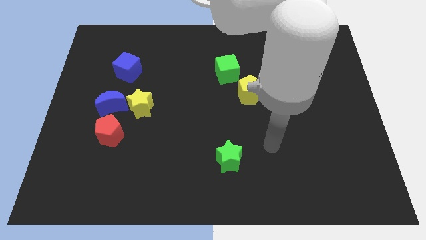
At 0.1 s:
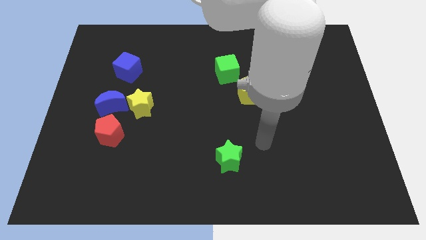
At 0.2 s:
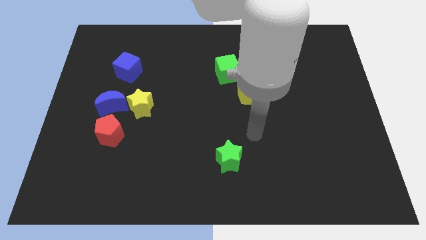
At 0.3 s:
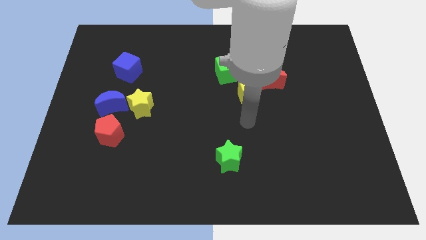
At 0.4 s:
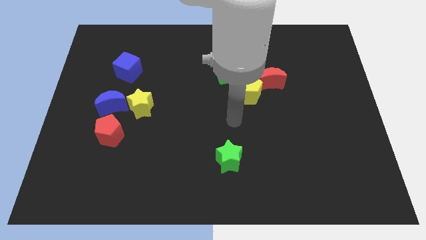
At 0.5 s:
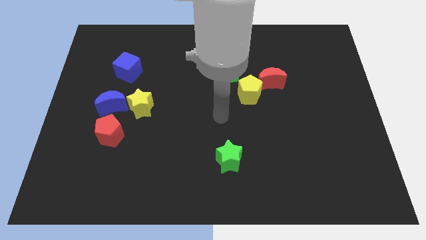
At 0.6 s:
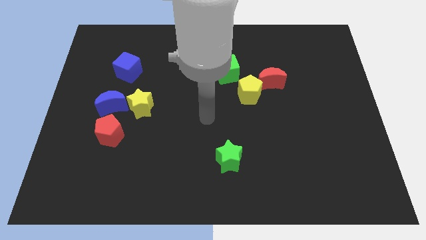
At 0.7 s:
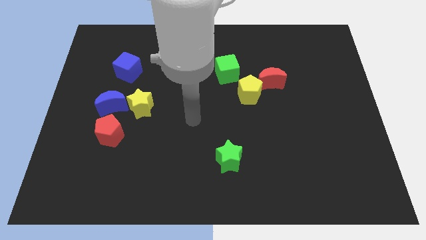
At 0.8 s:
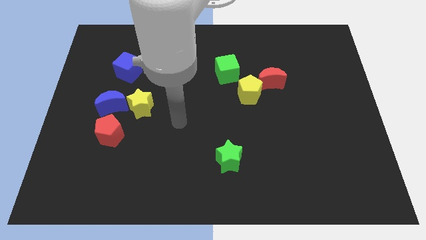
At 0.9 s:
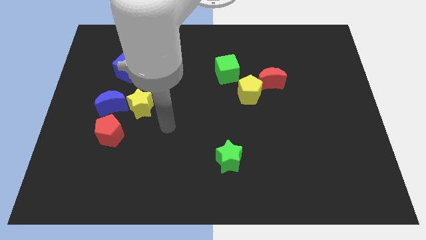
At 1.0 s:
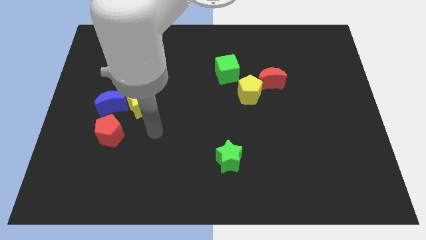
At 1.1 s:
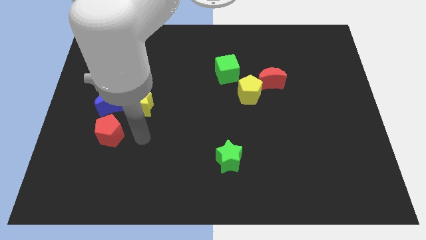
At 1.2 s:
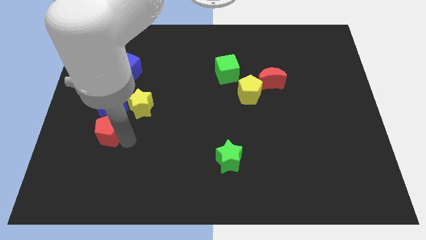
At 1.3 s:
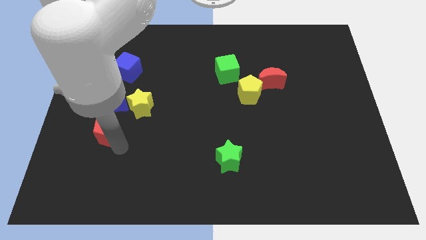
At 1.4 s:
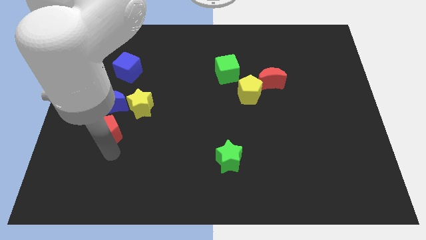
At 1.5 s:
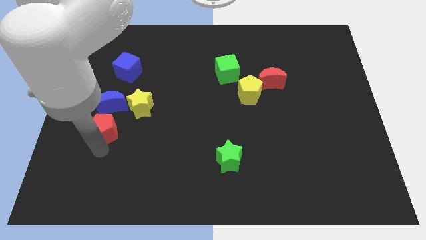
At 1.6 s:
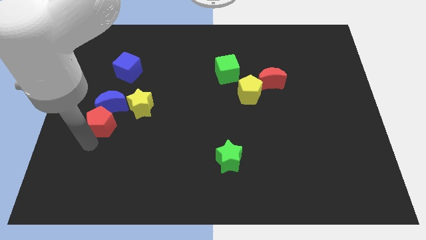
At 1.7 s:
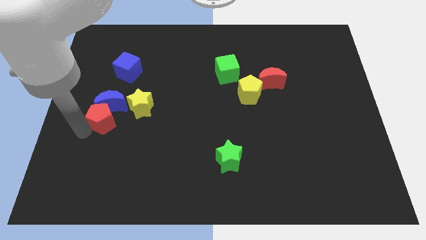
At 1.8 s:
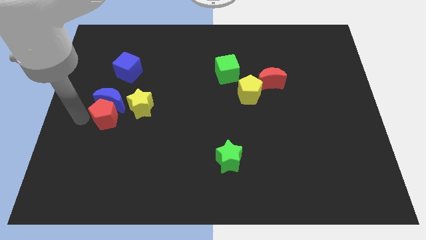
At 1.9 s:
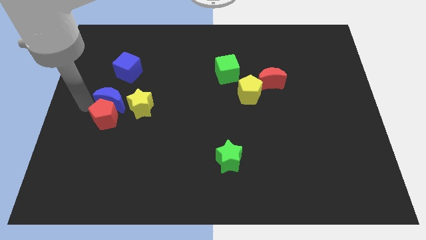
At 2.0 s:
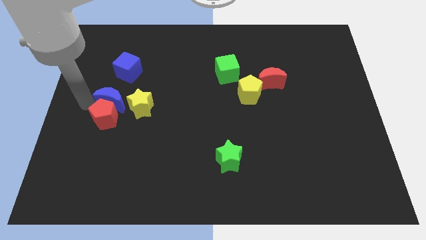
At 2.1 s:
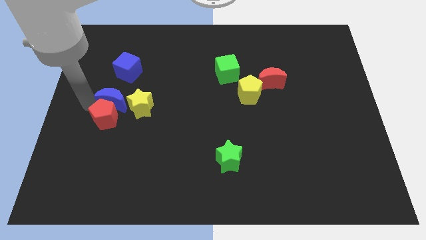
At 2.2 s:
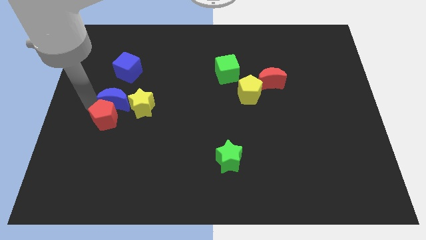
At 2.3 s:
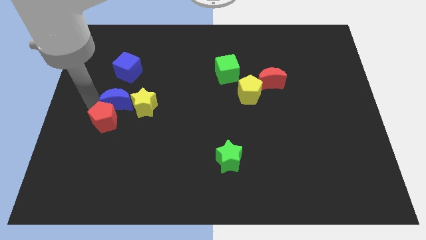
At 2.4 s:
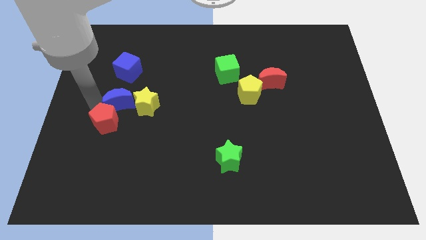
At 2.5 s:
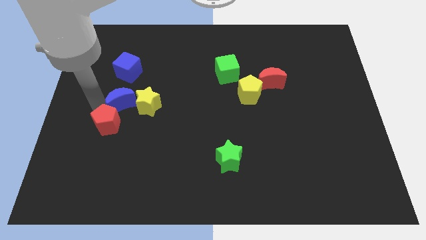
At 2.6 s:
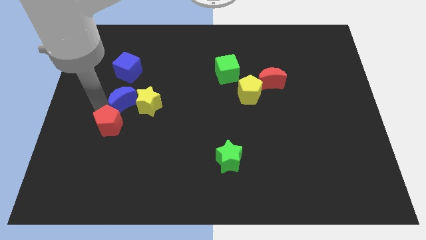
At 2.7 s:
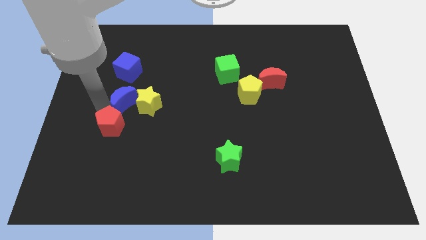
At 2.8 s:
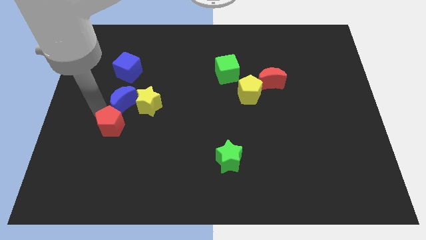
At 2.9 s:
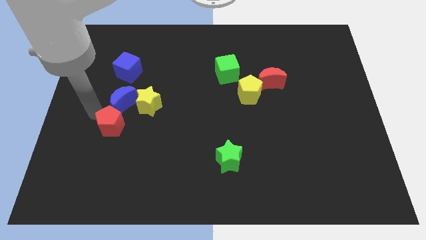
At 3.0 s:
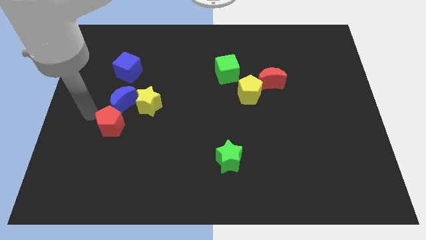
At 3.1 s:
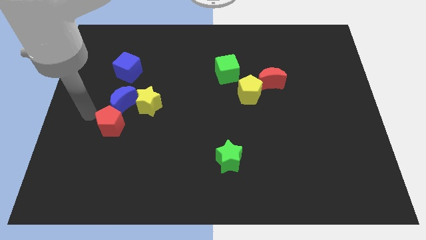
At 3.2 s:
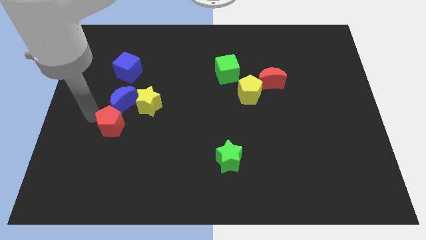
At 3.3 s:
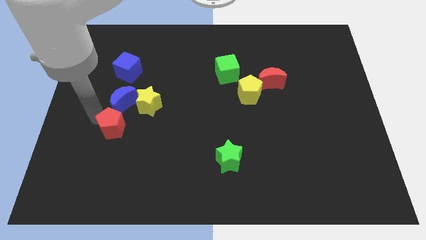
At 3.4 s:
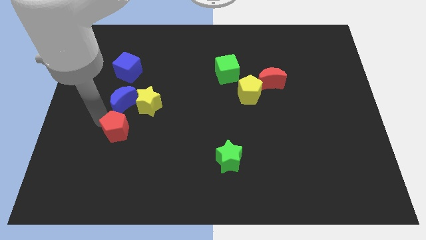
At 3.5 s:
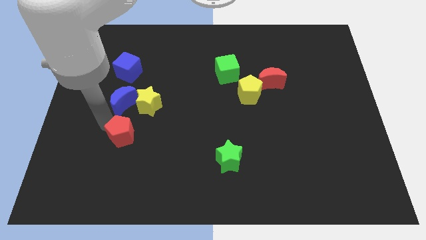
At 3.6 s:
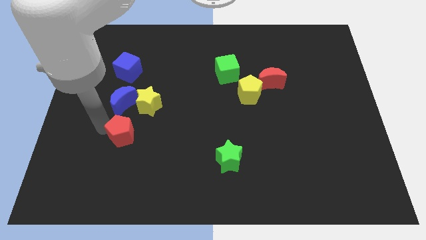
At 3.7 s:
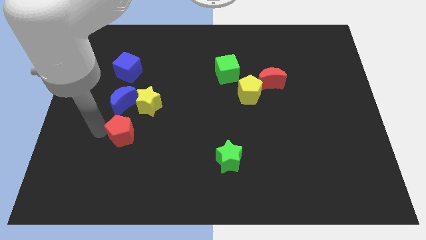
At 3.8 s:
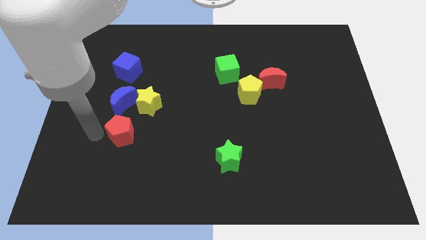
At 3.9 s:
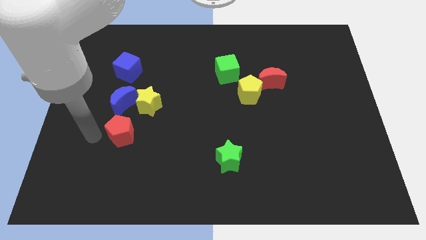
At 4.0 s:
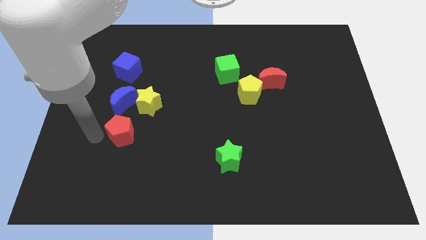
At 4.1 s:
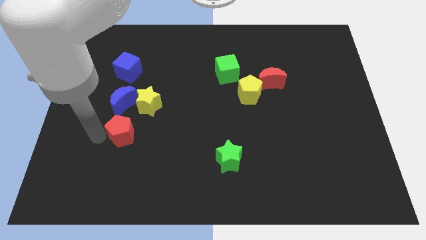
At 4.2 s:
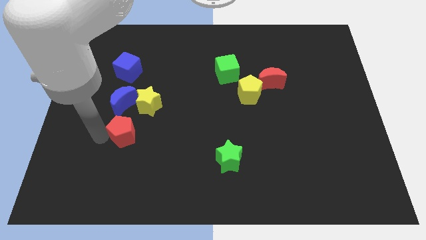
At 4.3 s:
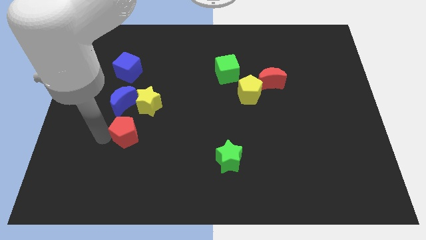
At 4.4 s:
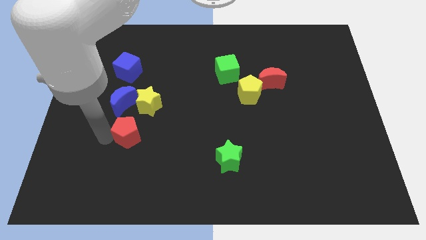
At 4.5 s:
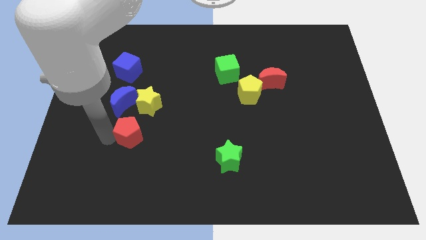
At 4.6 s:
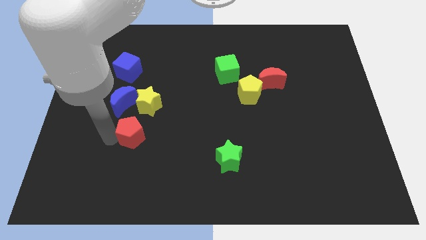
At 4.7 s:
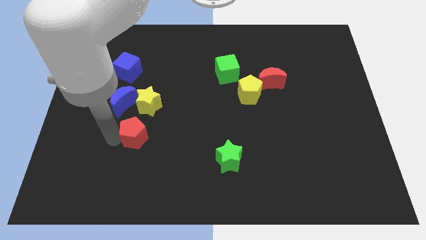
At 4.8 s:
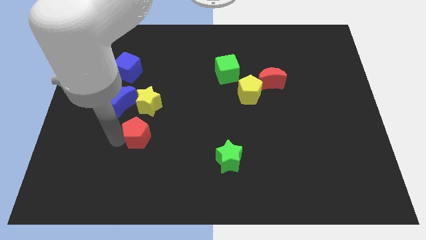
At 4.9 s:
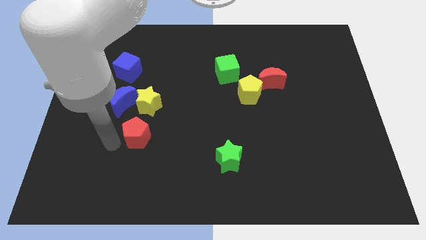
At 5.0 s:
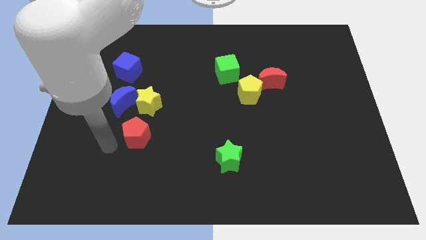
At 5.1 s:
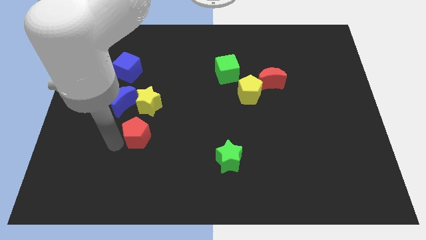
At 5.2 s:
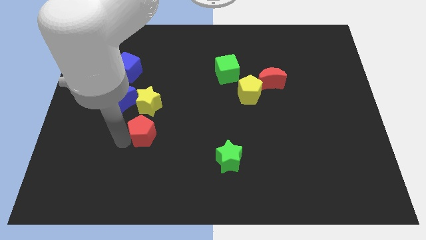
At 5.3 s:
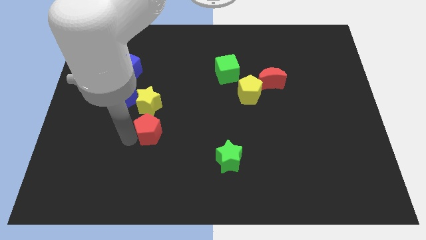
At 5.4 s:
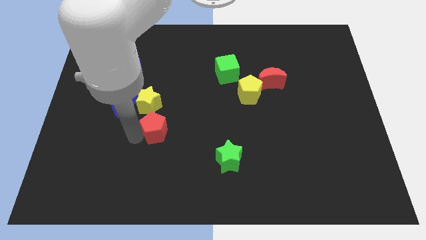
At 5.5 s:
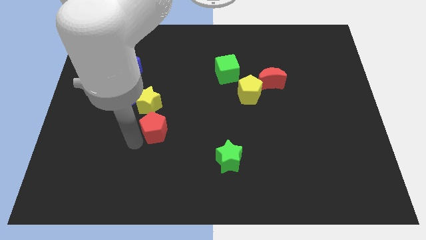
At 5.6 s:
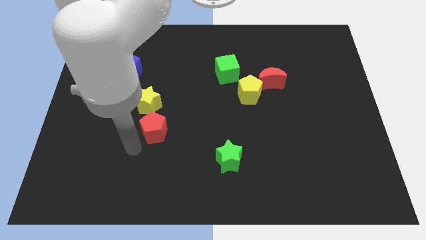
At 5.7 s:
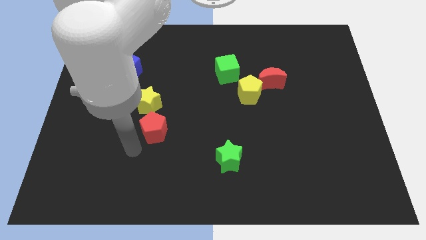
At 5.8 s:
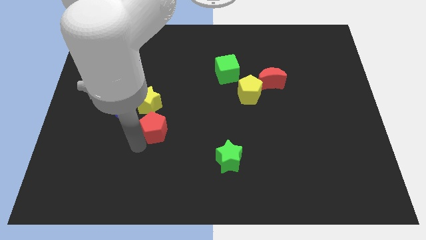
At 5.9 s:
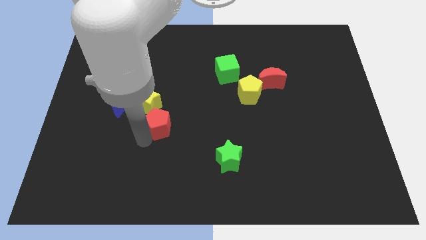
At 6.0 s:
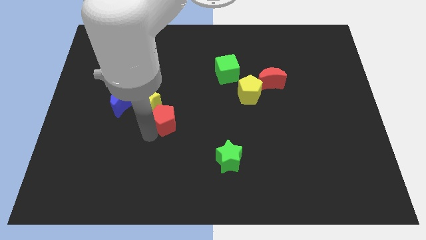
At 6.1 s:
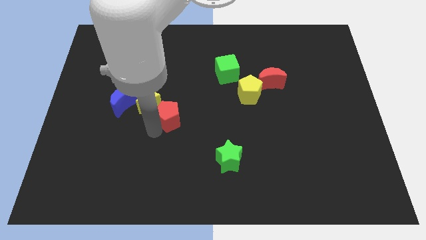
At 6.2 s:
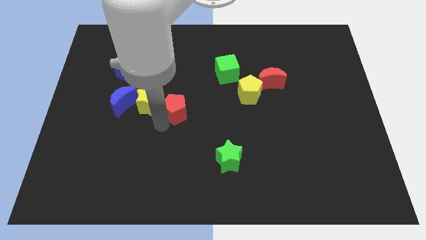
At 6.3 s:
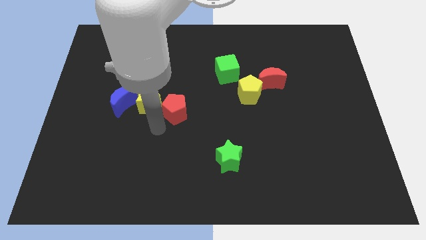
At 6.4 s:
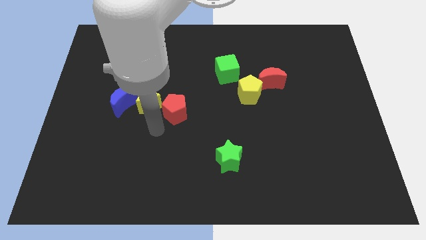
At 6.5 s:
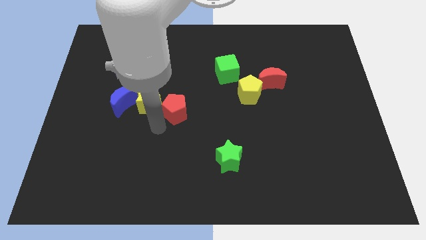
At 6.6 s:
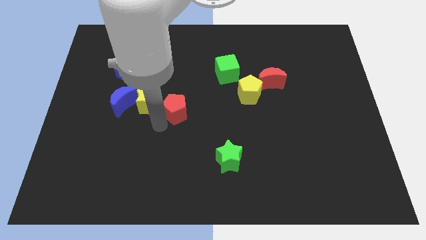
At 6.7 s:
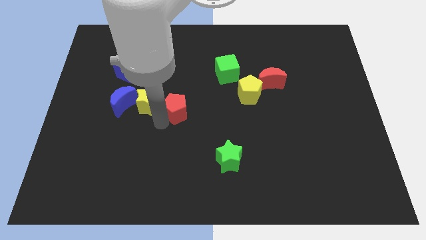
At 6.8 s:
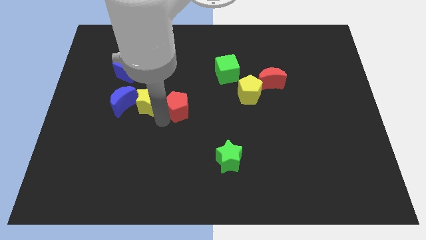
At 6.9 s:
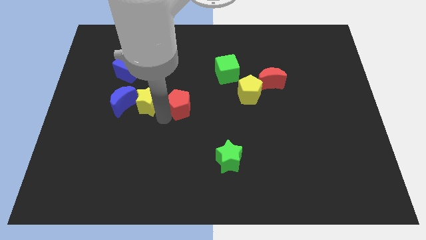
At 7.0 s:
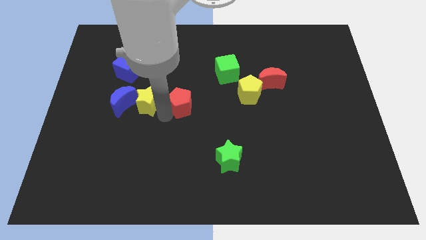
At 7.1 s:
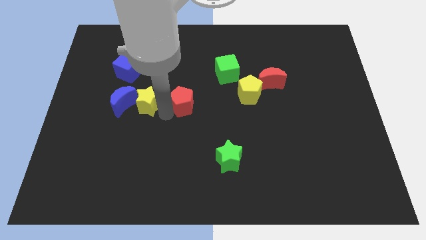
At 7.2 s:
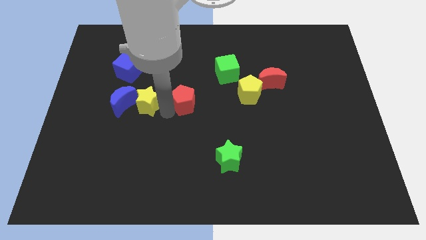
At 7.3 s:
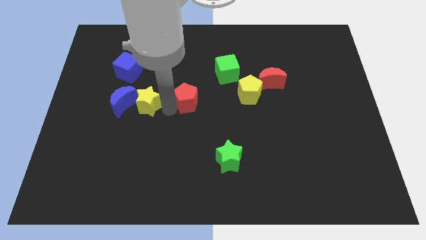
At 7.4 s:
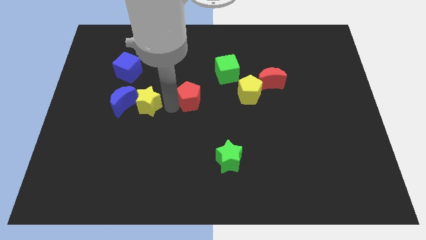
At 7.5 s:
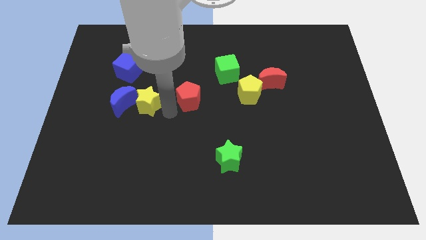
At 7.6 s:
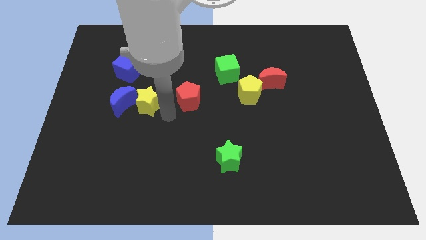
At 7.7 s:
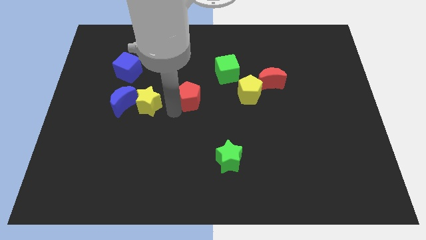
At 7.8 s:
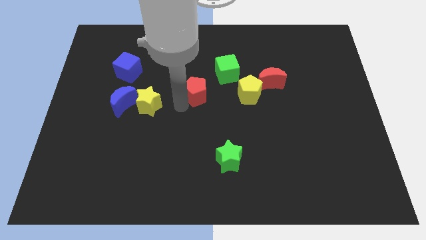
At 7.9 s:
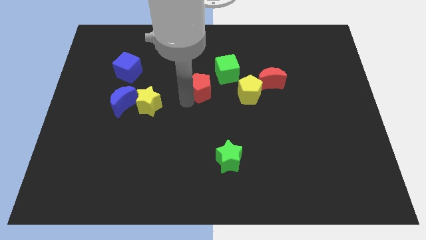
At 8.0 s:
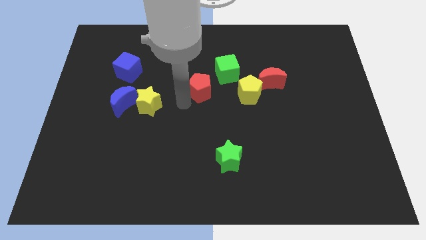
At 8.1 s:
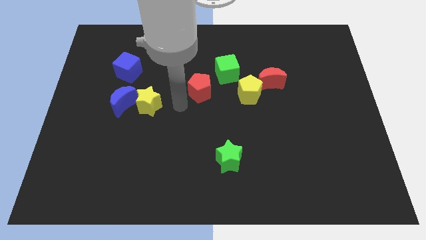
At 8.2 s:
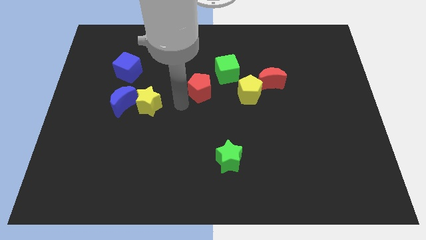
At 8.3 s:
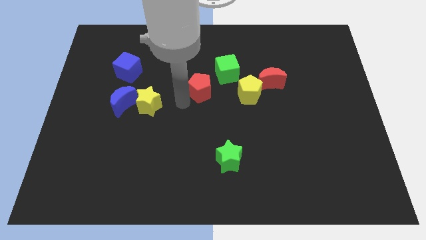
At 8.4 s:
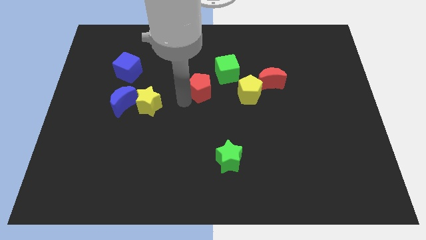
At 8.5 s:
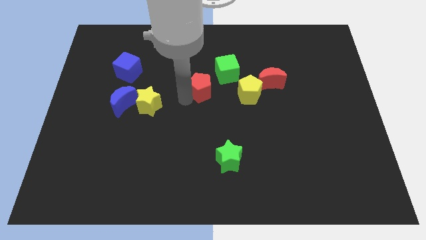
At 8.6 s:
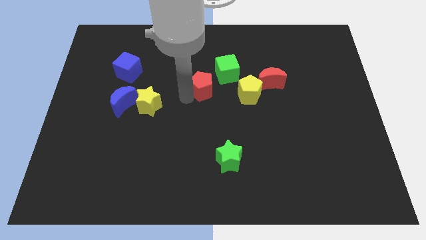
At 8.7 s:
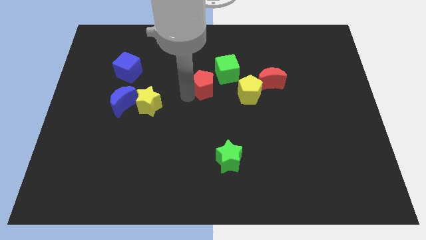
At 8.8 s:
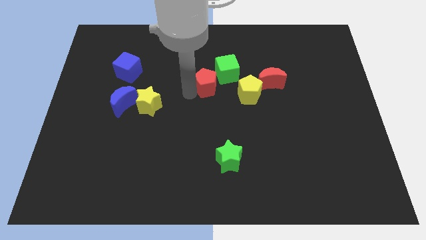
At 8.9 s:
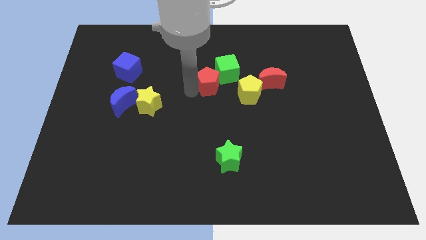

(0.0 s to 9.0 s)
put the red pentagon next to the green cube
